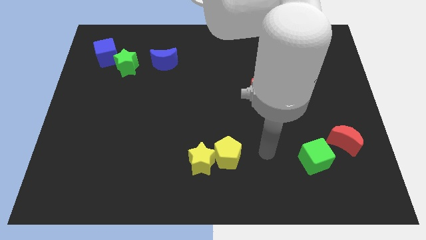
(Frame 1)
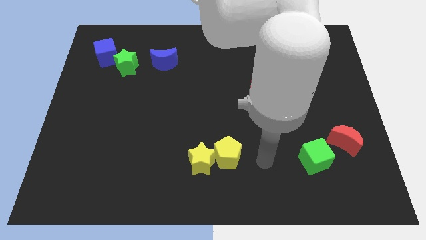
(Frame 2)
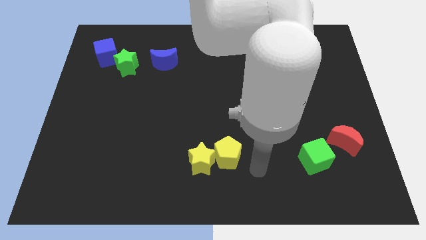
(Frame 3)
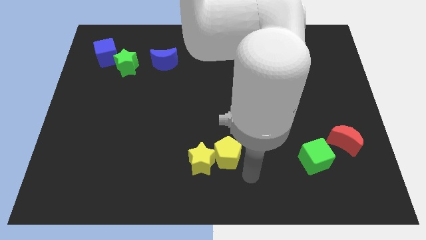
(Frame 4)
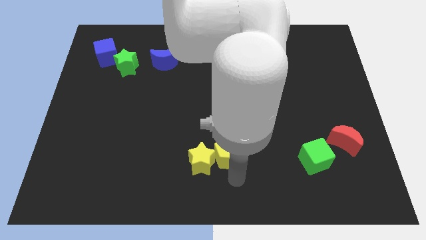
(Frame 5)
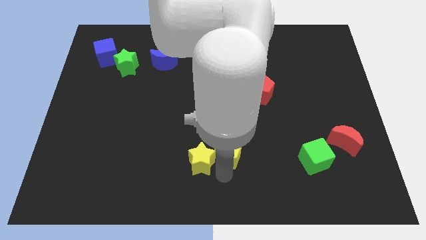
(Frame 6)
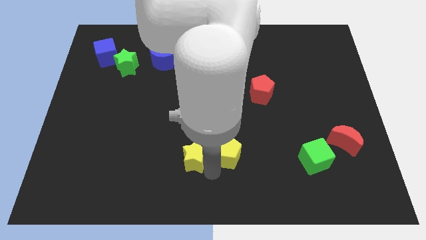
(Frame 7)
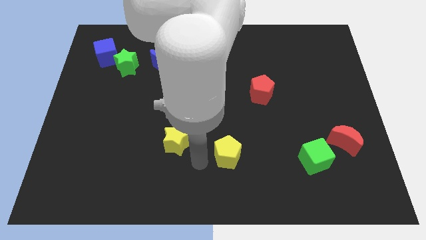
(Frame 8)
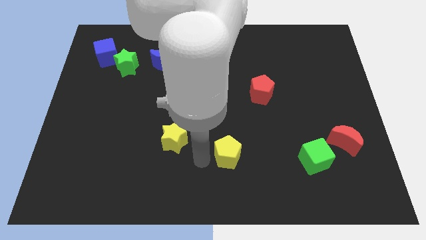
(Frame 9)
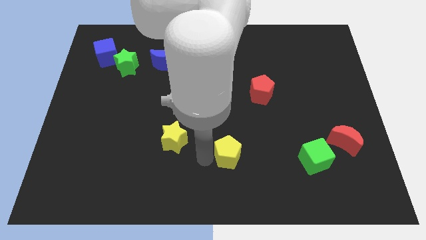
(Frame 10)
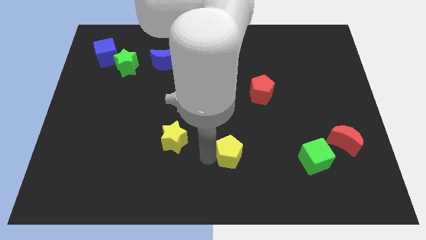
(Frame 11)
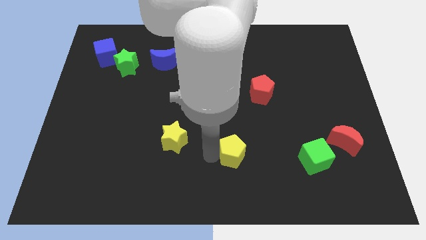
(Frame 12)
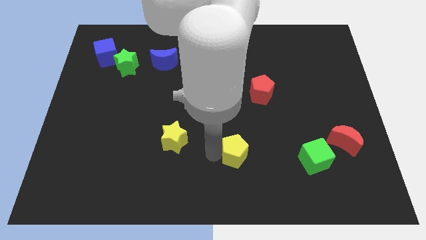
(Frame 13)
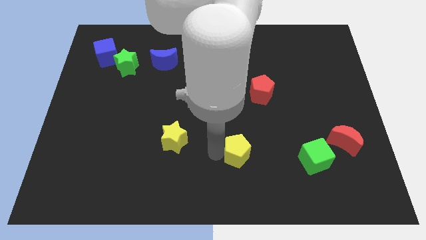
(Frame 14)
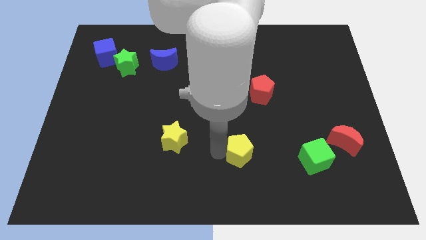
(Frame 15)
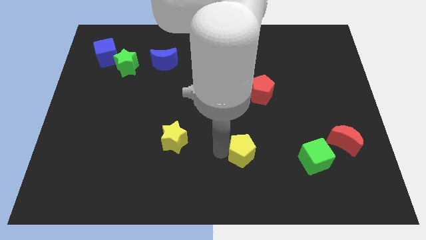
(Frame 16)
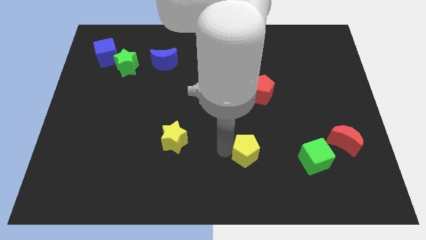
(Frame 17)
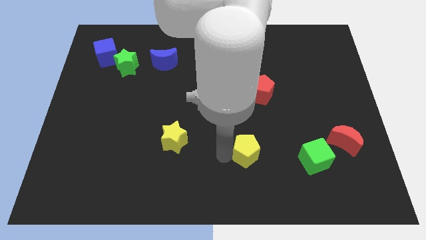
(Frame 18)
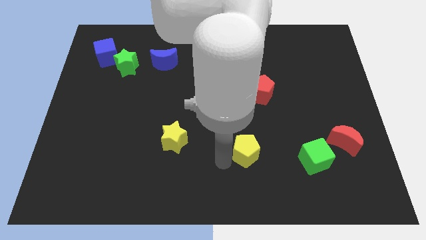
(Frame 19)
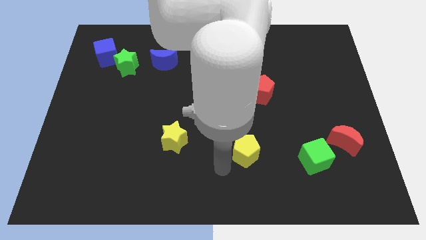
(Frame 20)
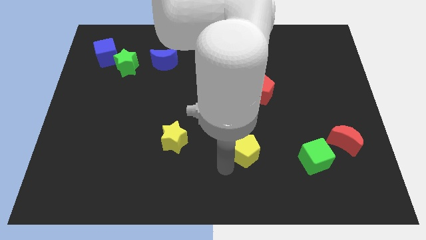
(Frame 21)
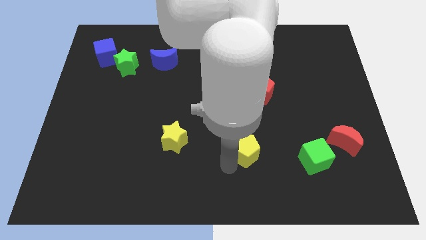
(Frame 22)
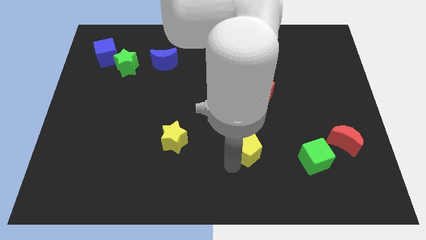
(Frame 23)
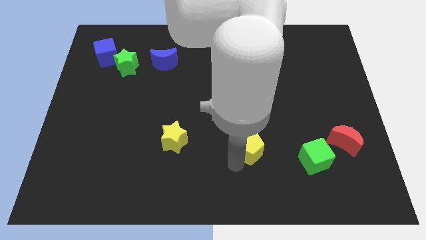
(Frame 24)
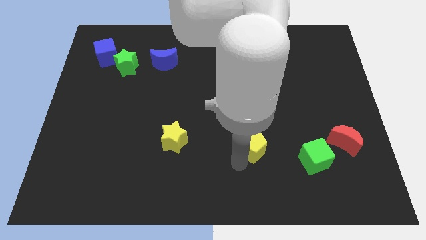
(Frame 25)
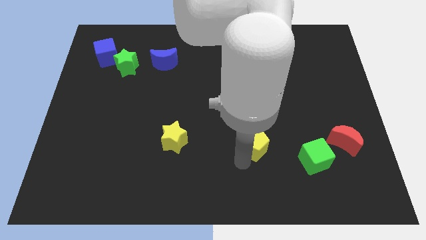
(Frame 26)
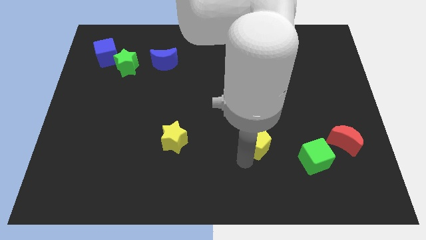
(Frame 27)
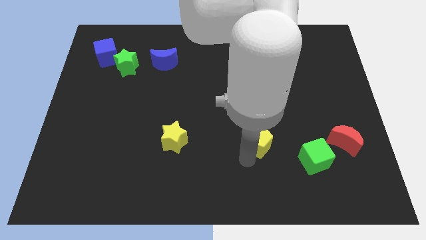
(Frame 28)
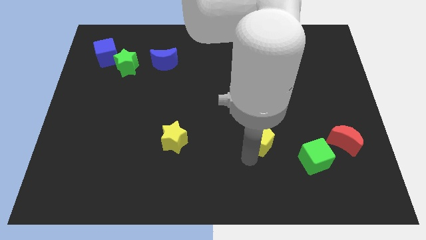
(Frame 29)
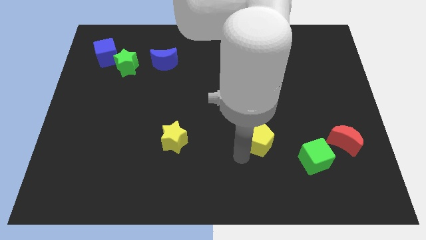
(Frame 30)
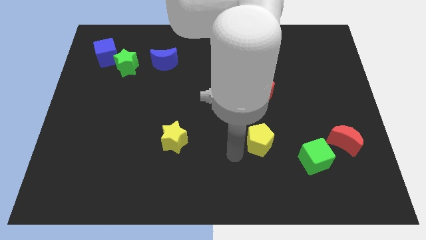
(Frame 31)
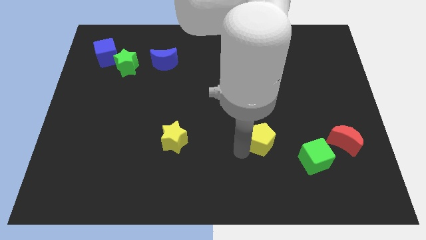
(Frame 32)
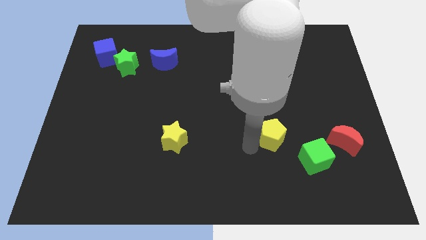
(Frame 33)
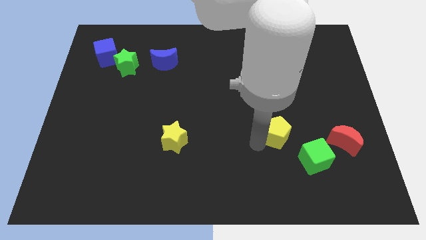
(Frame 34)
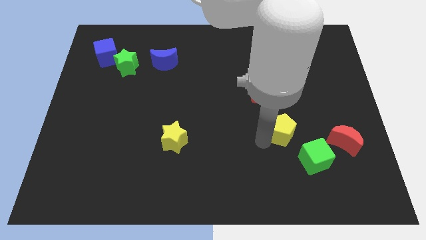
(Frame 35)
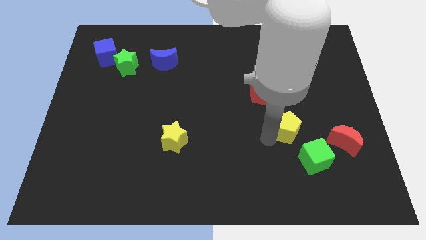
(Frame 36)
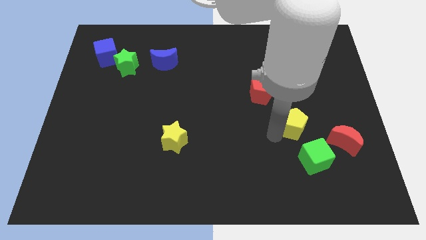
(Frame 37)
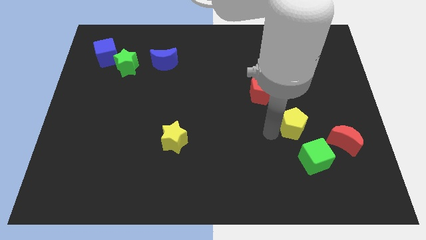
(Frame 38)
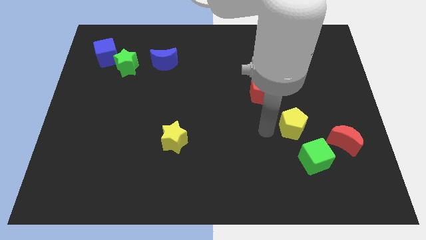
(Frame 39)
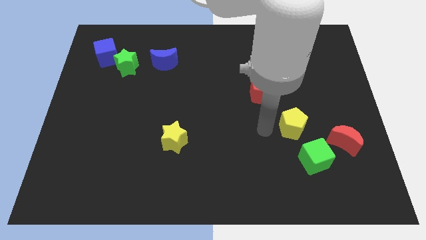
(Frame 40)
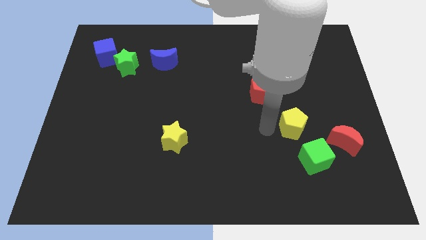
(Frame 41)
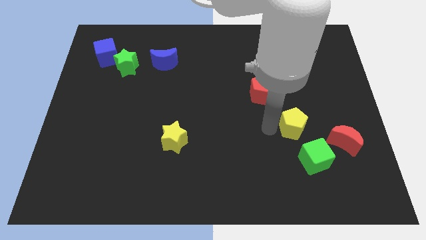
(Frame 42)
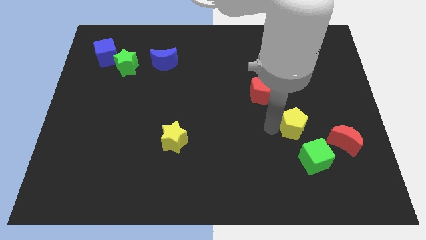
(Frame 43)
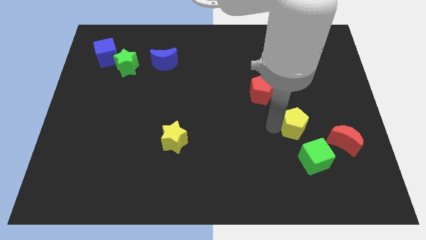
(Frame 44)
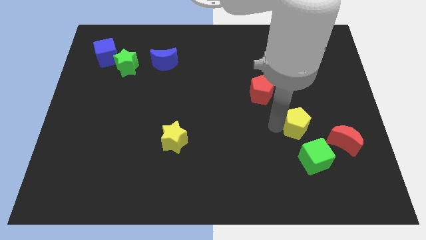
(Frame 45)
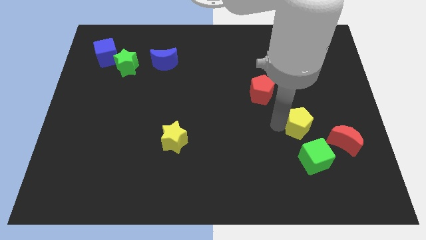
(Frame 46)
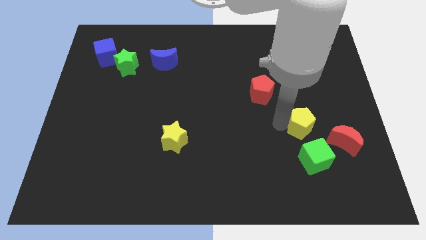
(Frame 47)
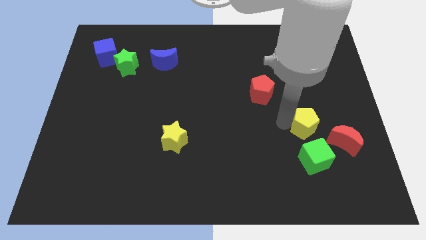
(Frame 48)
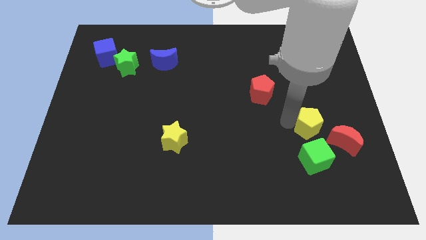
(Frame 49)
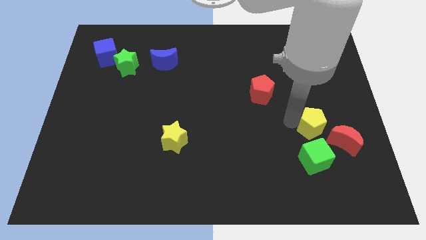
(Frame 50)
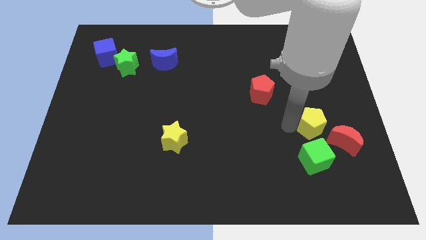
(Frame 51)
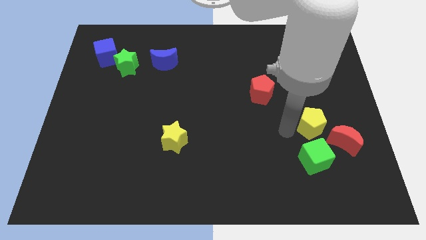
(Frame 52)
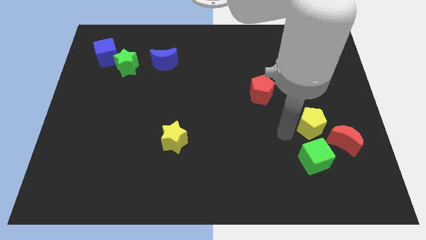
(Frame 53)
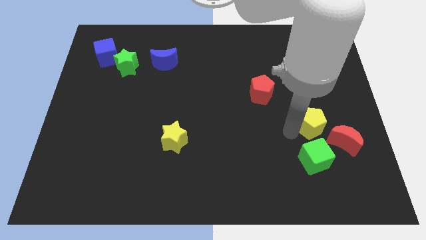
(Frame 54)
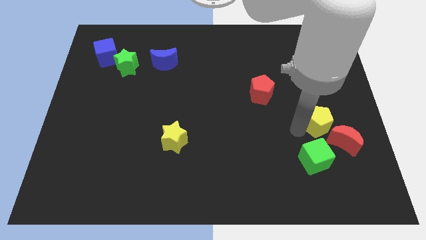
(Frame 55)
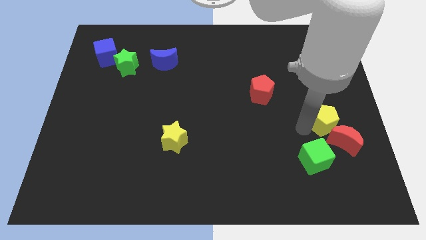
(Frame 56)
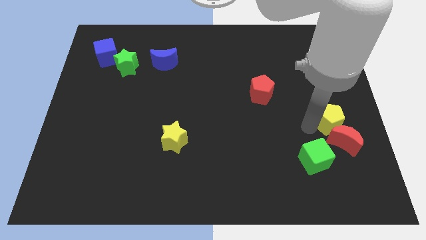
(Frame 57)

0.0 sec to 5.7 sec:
push the yellow pentagon to the right side of the board

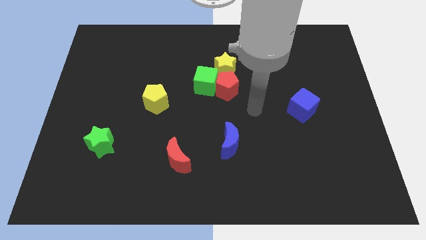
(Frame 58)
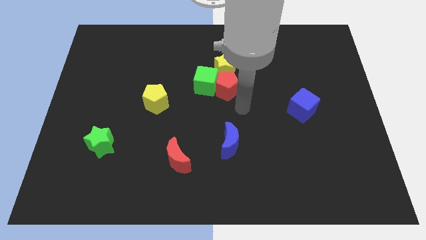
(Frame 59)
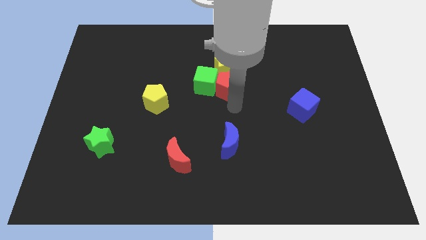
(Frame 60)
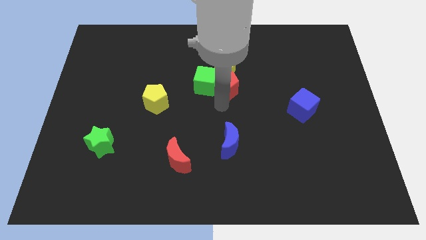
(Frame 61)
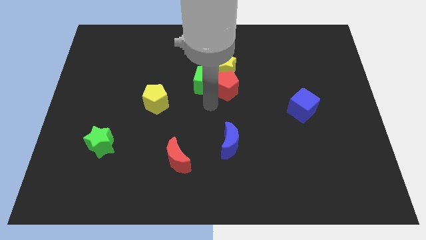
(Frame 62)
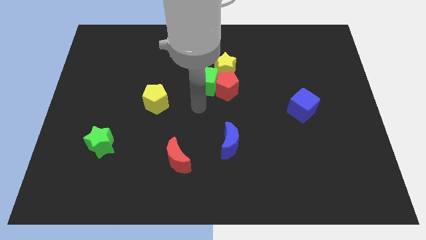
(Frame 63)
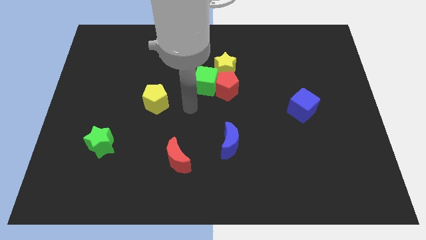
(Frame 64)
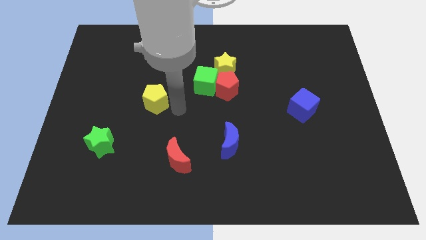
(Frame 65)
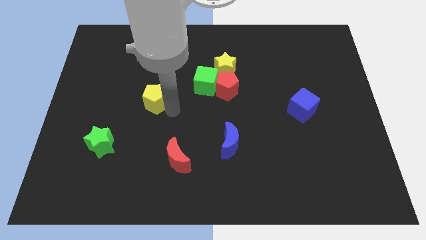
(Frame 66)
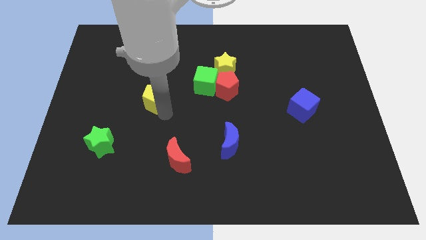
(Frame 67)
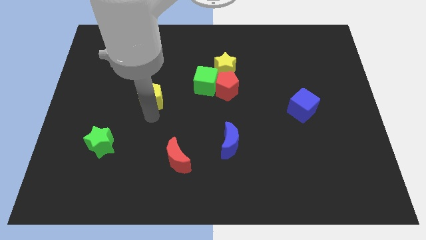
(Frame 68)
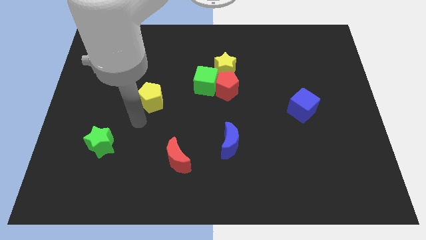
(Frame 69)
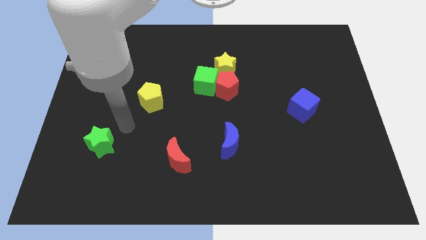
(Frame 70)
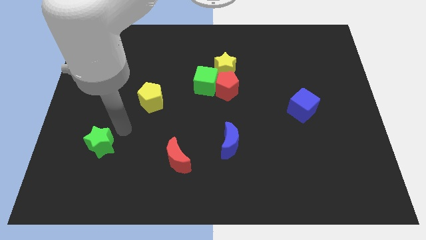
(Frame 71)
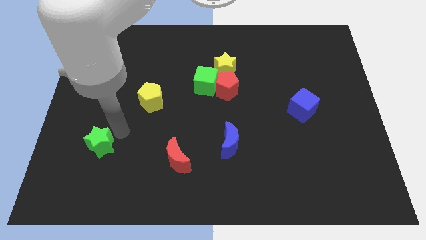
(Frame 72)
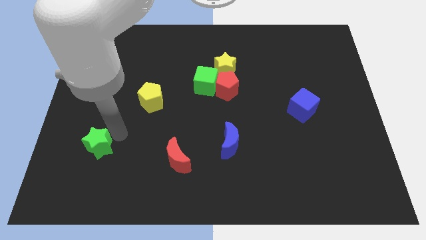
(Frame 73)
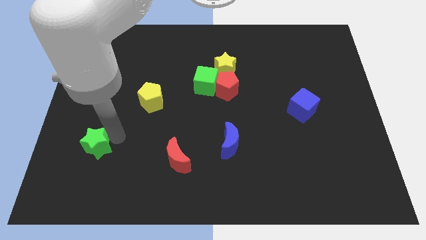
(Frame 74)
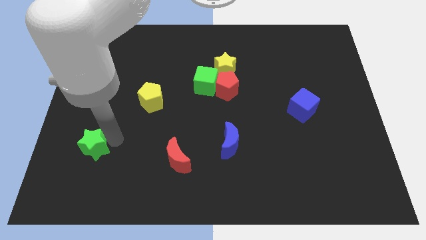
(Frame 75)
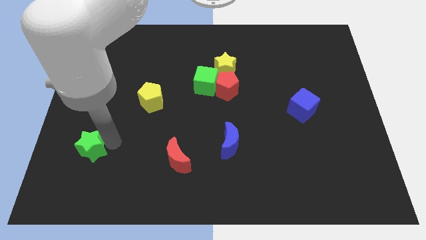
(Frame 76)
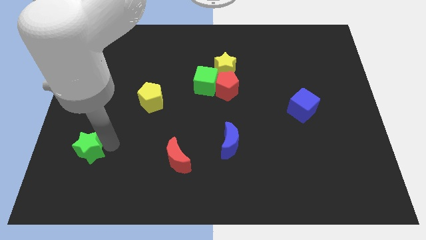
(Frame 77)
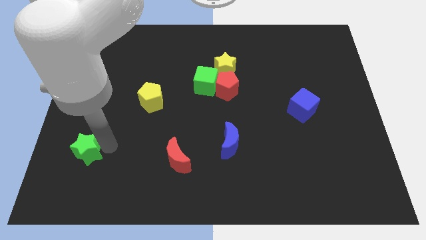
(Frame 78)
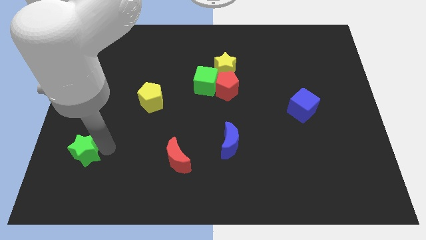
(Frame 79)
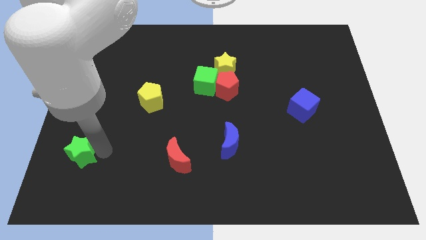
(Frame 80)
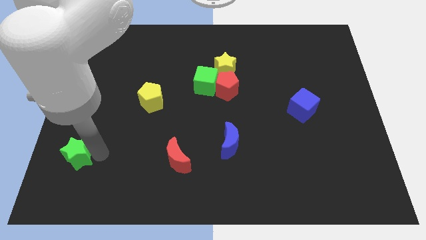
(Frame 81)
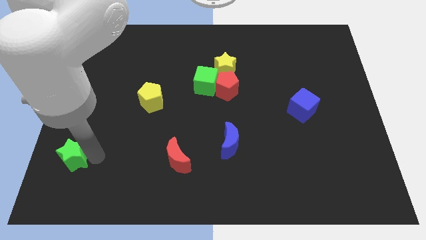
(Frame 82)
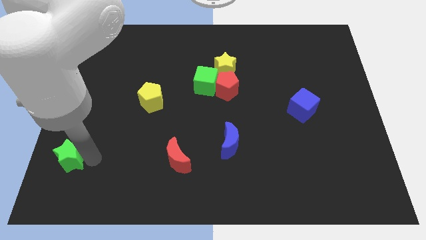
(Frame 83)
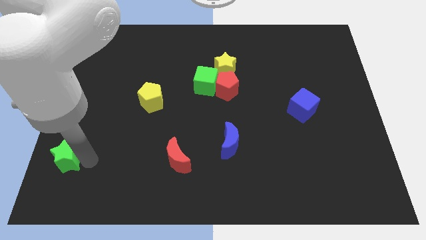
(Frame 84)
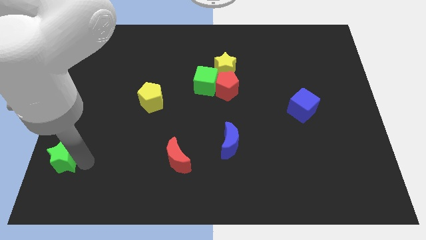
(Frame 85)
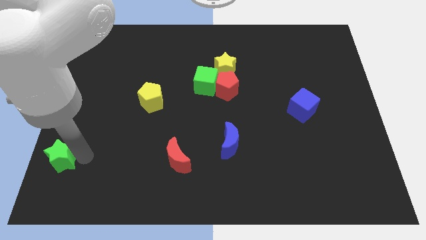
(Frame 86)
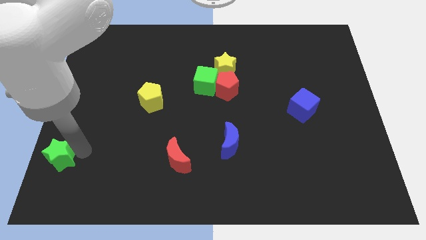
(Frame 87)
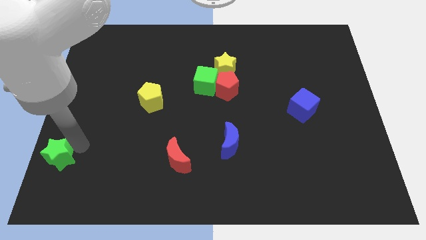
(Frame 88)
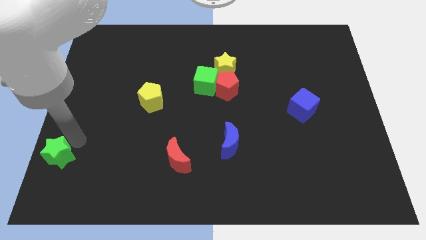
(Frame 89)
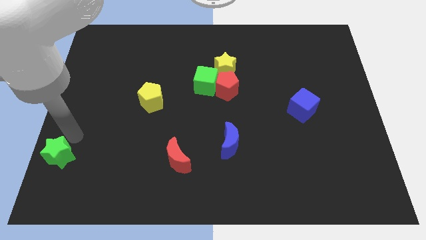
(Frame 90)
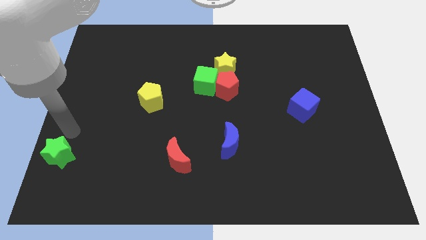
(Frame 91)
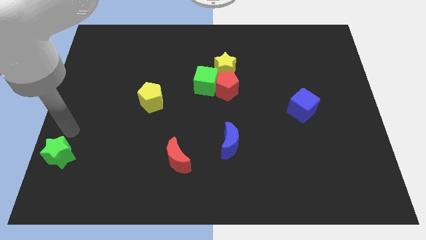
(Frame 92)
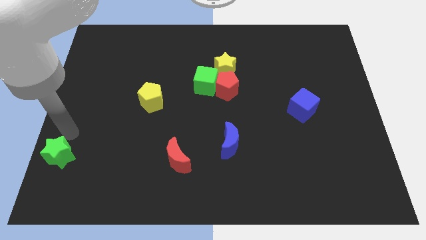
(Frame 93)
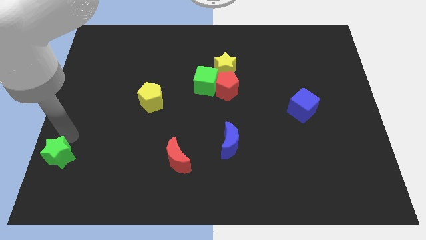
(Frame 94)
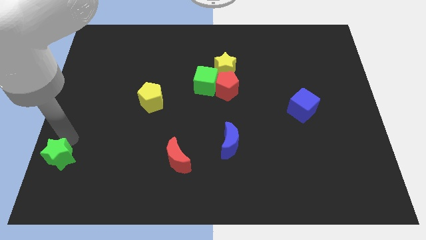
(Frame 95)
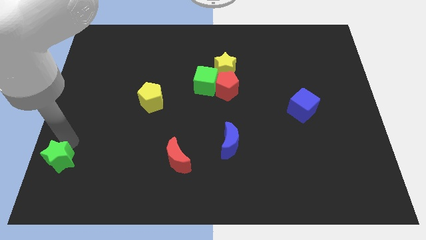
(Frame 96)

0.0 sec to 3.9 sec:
push the green star to the bottom left
